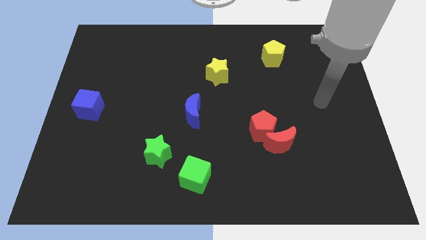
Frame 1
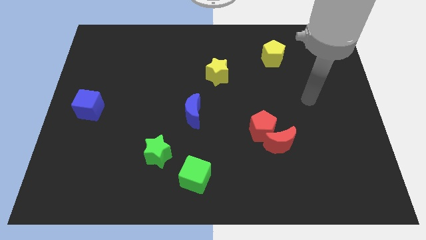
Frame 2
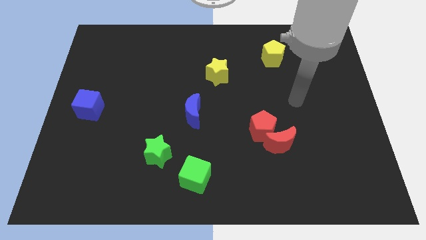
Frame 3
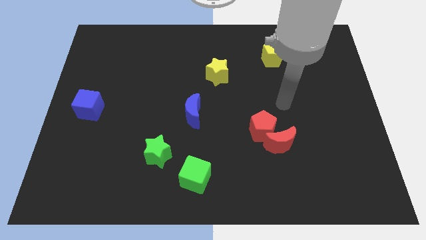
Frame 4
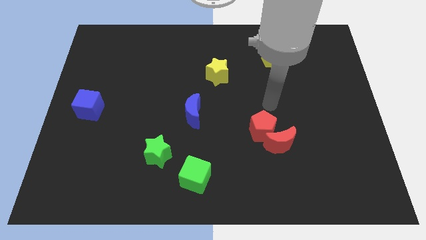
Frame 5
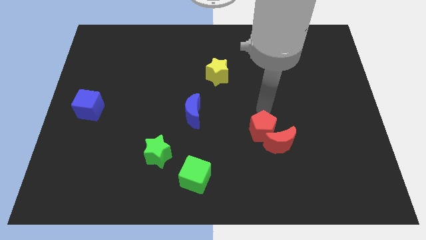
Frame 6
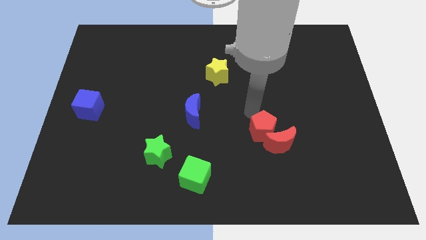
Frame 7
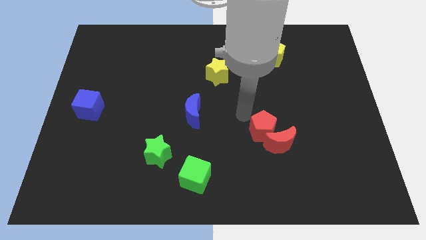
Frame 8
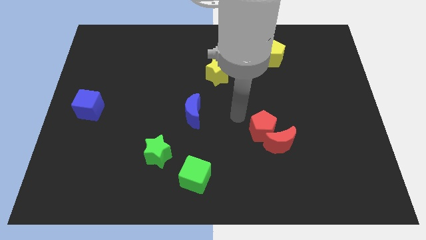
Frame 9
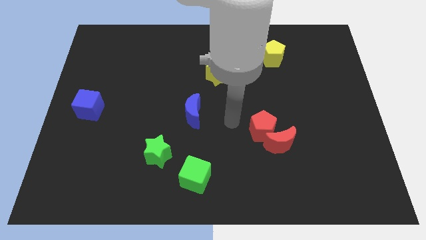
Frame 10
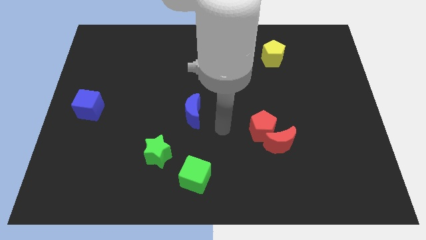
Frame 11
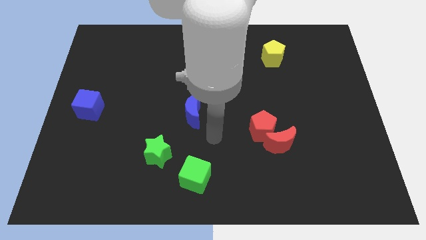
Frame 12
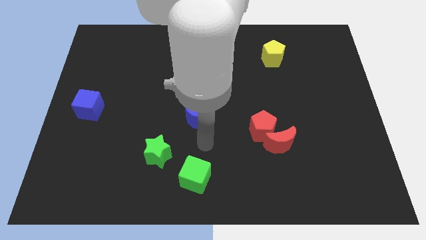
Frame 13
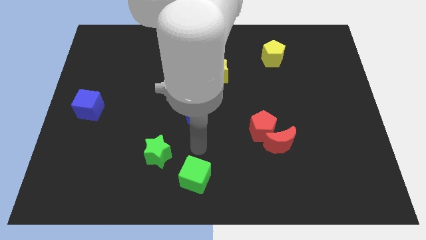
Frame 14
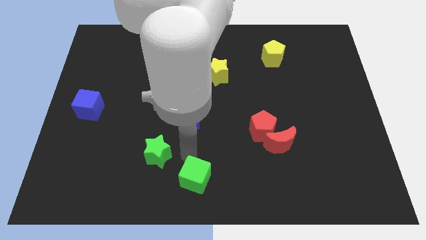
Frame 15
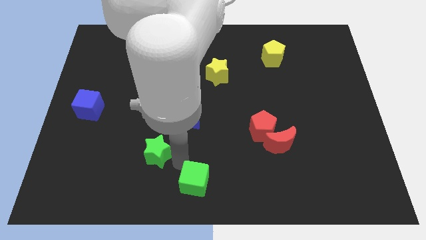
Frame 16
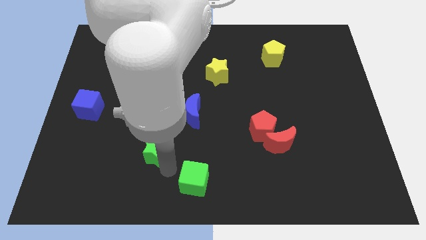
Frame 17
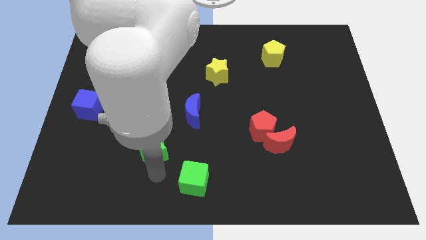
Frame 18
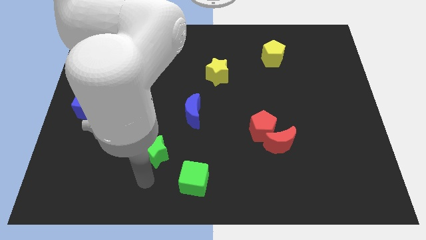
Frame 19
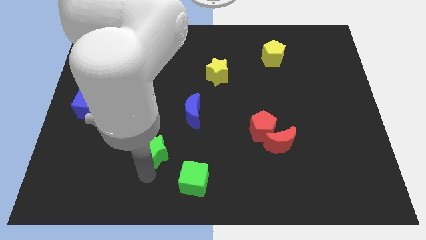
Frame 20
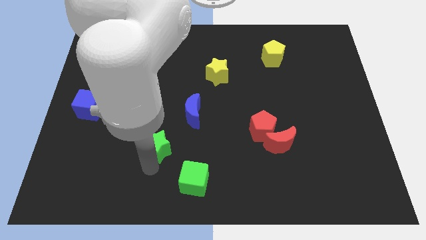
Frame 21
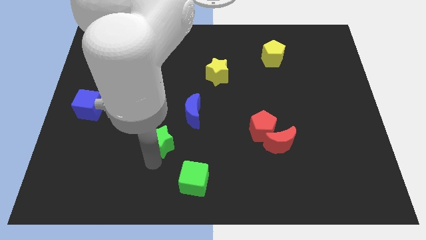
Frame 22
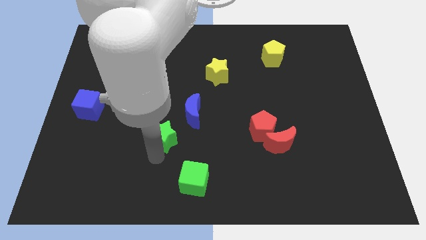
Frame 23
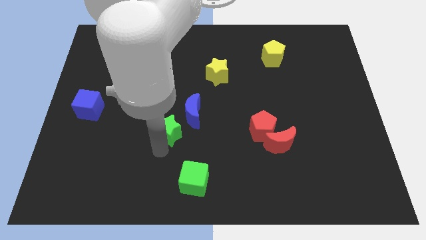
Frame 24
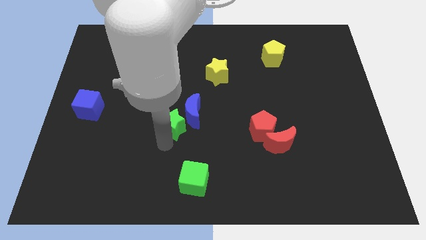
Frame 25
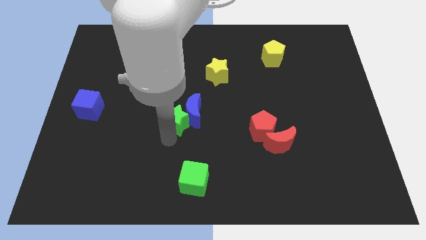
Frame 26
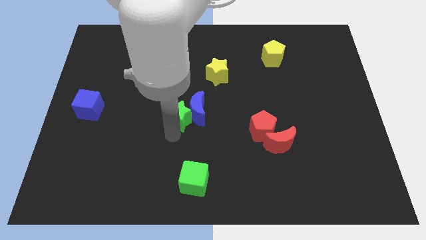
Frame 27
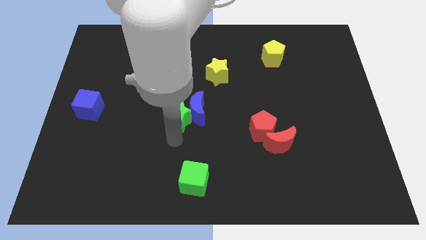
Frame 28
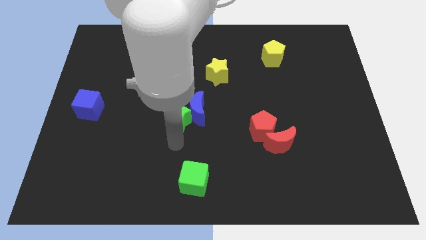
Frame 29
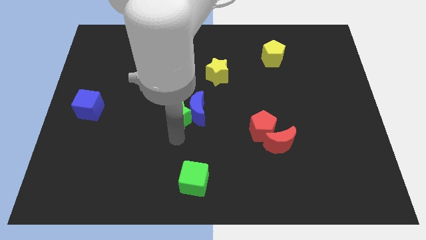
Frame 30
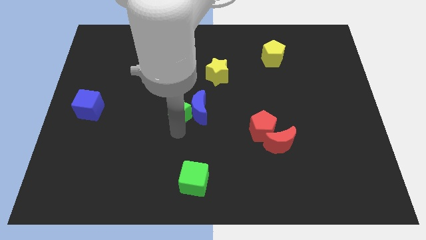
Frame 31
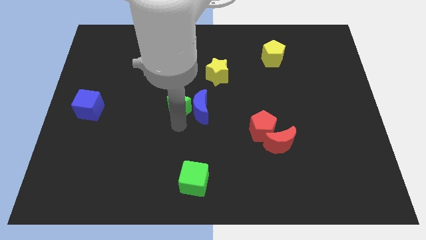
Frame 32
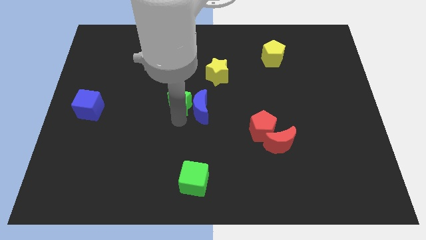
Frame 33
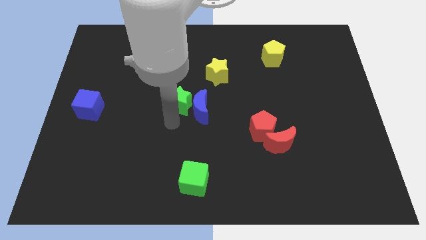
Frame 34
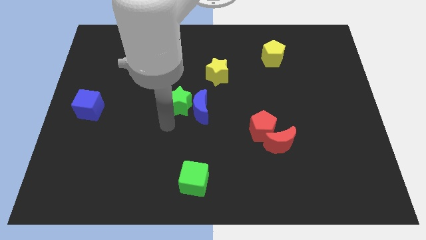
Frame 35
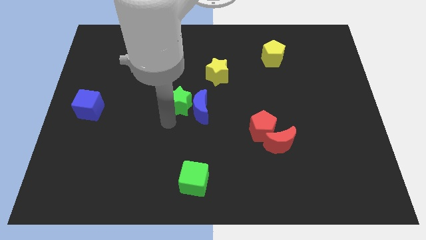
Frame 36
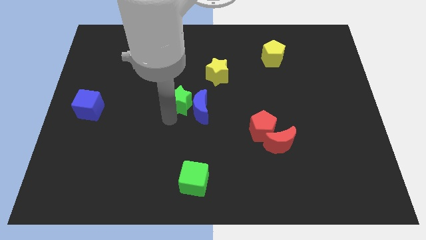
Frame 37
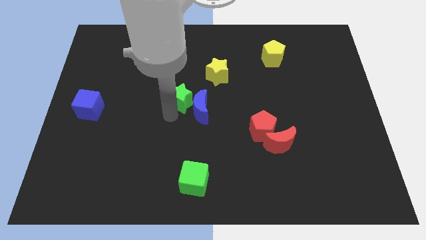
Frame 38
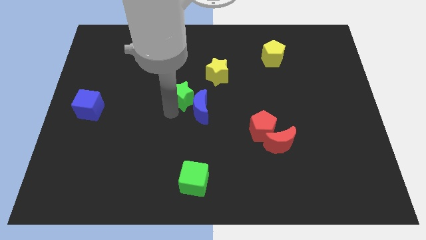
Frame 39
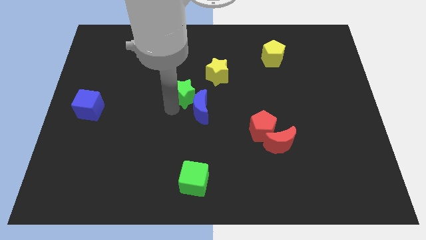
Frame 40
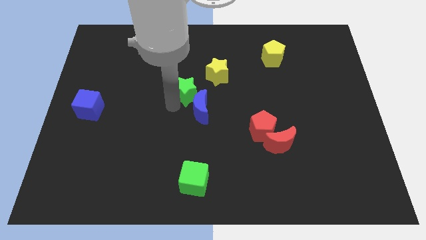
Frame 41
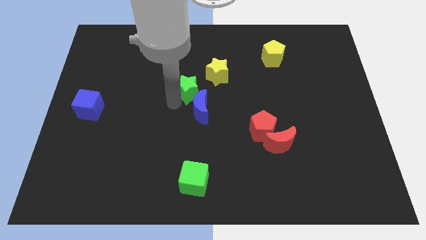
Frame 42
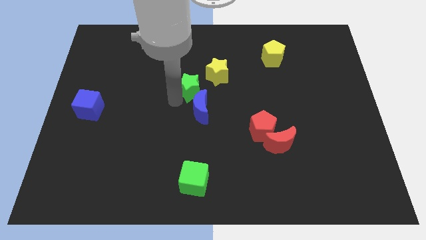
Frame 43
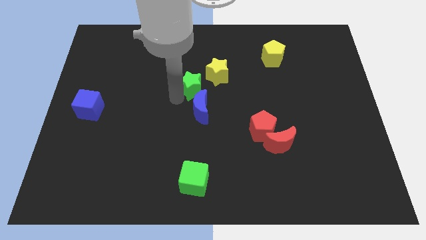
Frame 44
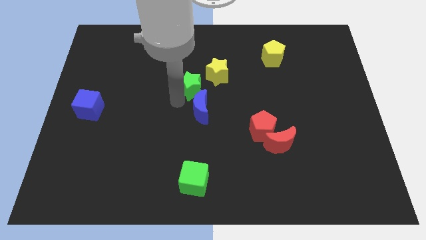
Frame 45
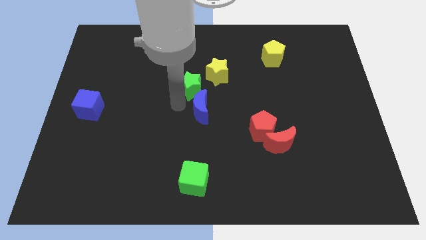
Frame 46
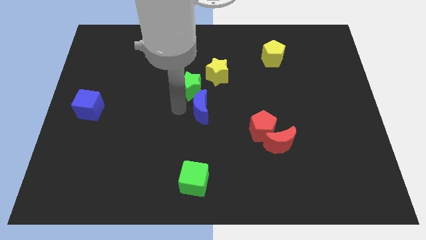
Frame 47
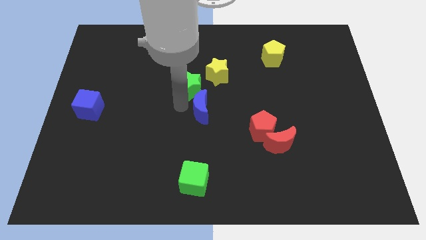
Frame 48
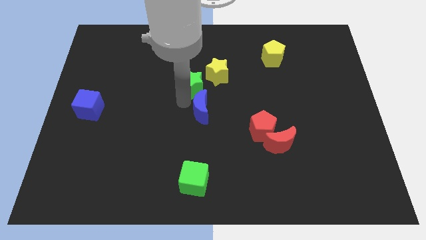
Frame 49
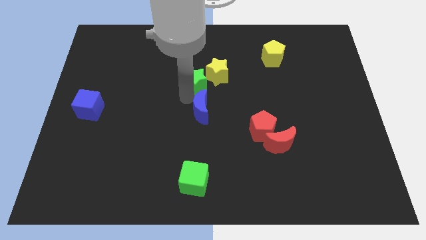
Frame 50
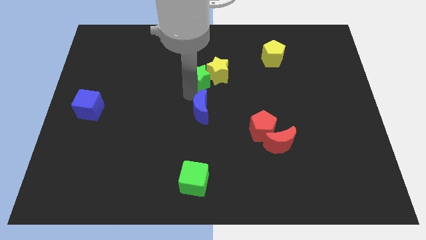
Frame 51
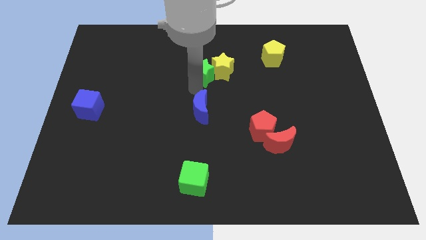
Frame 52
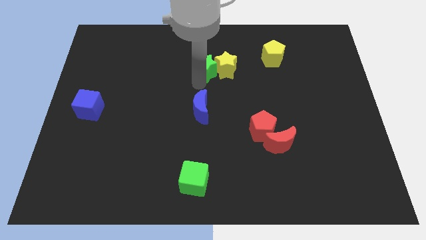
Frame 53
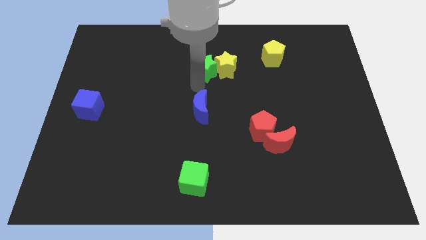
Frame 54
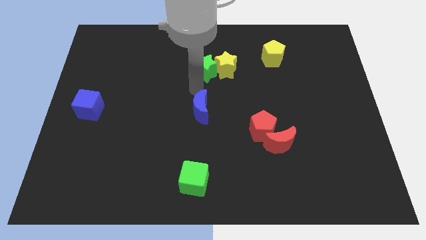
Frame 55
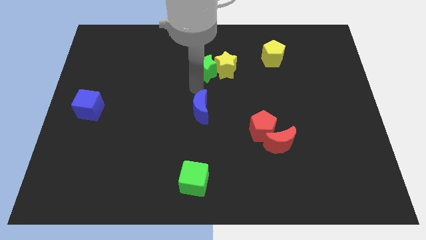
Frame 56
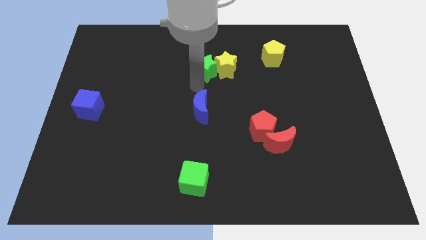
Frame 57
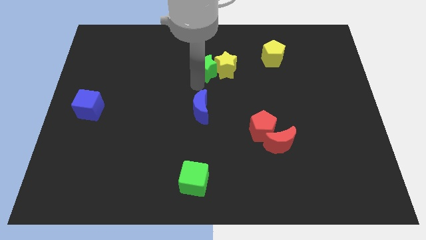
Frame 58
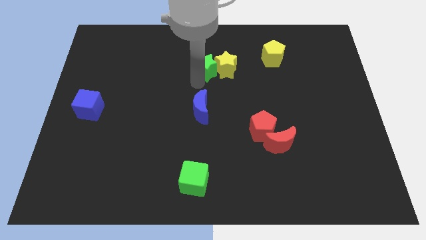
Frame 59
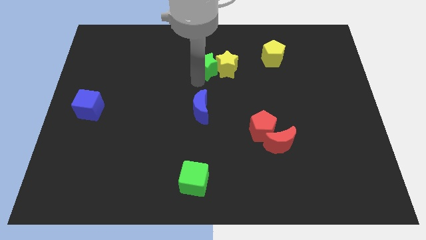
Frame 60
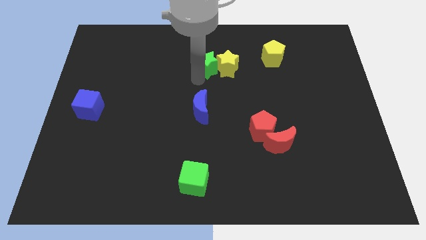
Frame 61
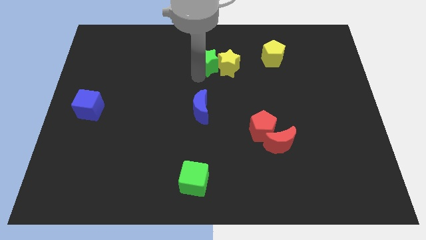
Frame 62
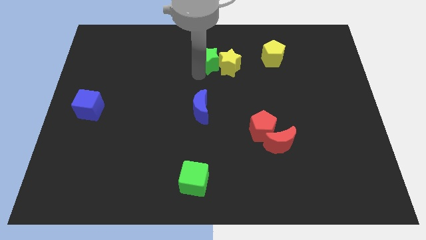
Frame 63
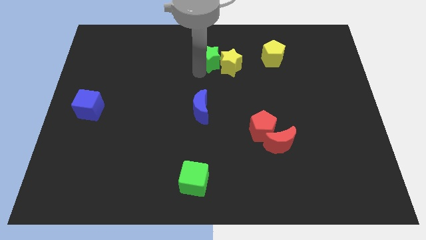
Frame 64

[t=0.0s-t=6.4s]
put the green star left of the yellow pentagon
